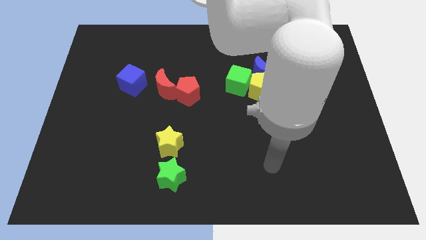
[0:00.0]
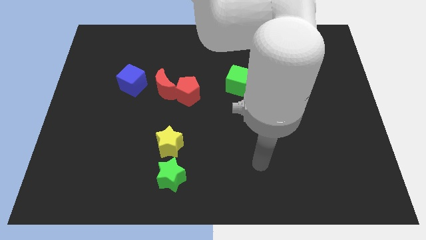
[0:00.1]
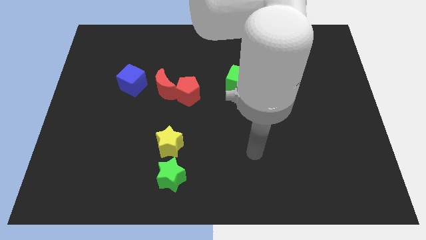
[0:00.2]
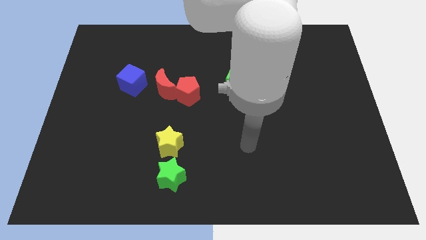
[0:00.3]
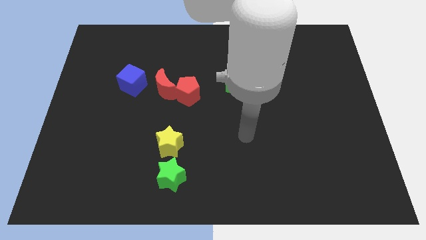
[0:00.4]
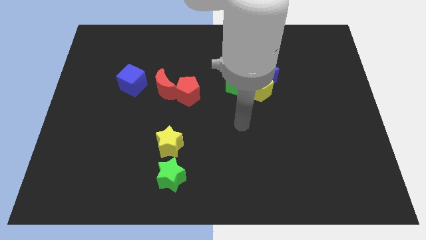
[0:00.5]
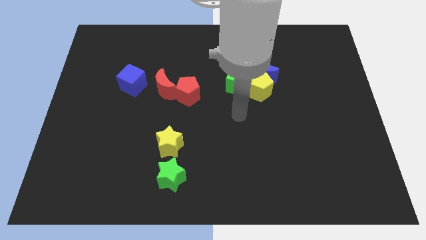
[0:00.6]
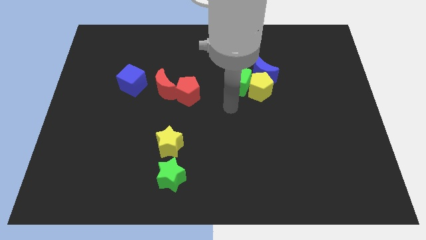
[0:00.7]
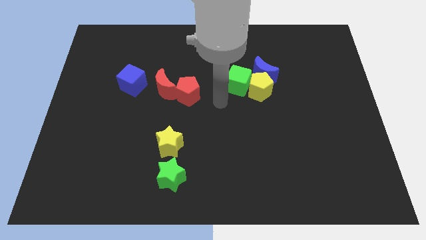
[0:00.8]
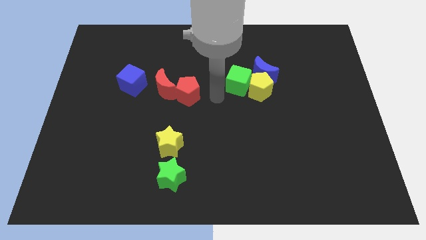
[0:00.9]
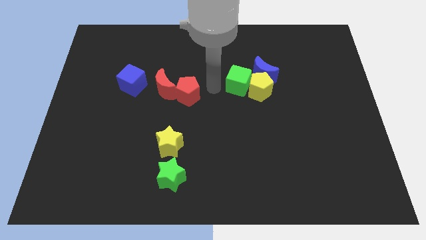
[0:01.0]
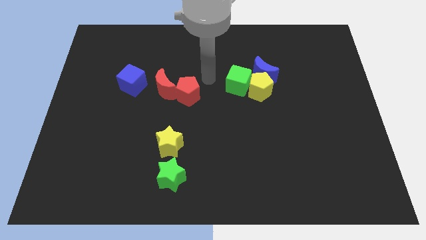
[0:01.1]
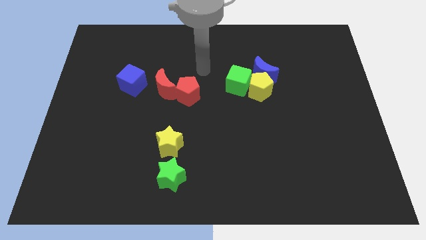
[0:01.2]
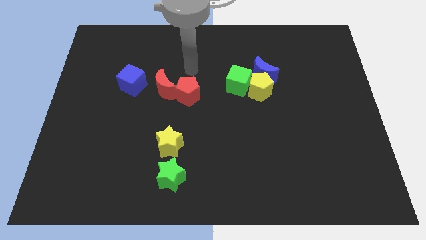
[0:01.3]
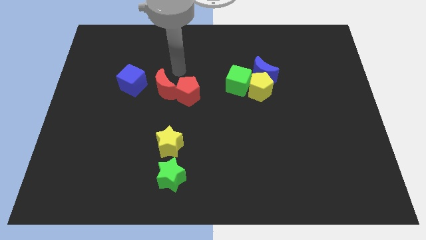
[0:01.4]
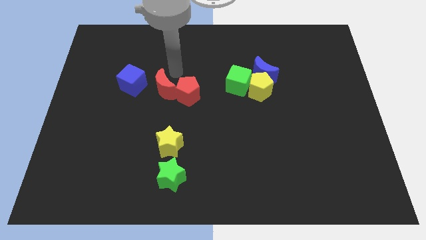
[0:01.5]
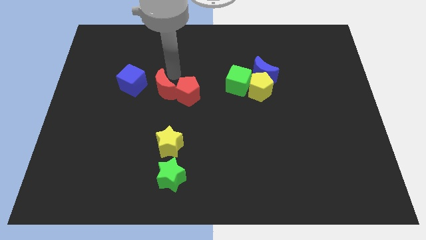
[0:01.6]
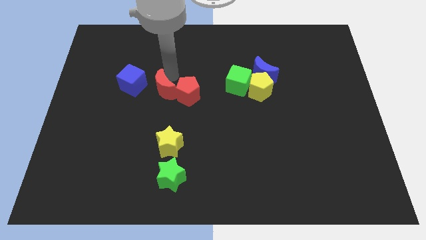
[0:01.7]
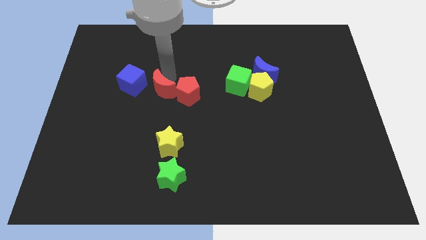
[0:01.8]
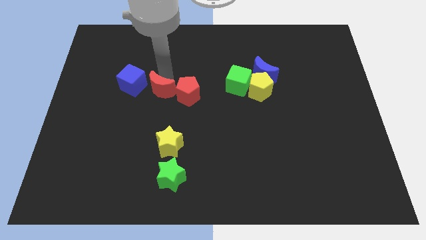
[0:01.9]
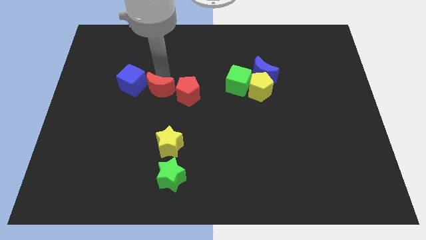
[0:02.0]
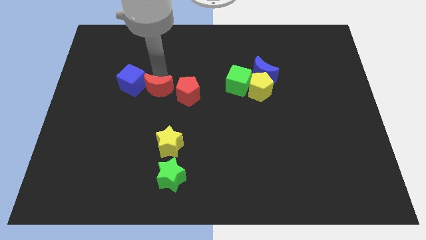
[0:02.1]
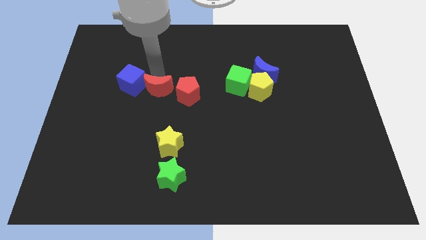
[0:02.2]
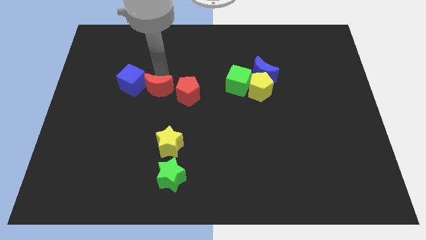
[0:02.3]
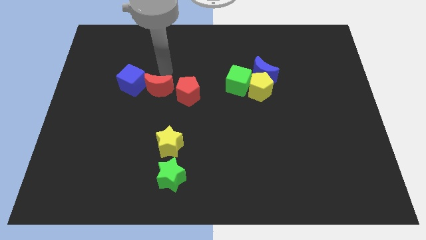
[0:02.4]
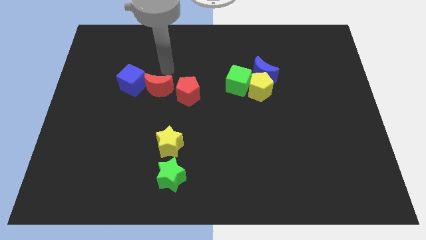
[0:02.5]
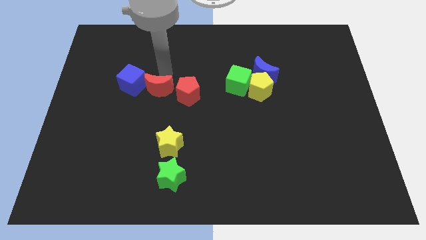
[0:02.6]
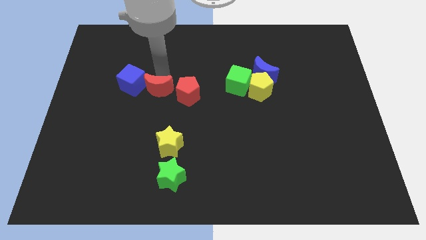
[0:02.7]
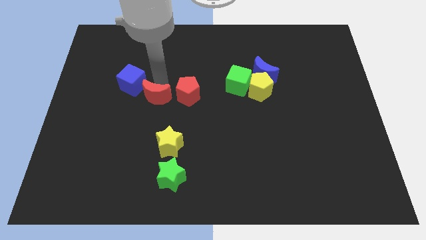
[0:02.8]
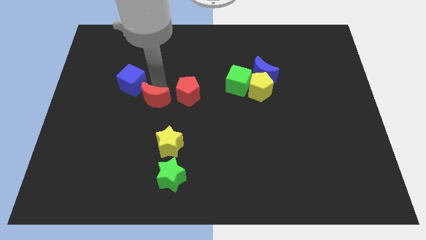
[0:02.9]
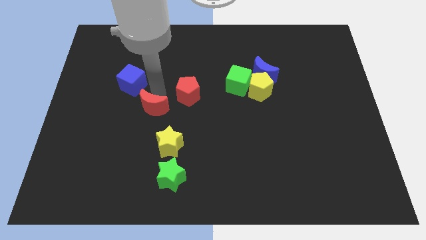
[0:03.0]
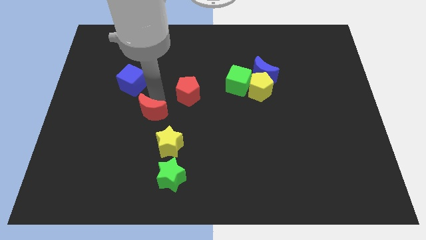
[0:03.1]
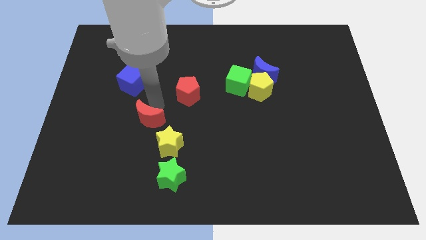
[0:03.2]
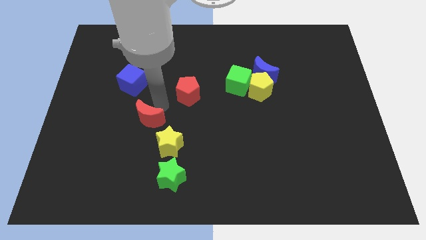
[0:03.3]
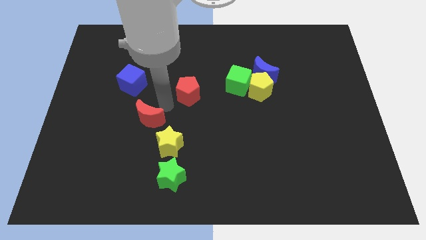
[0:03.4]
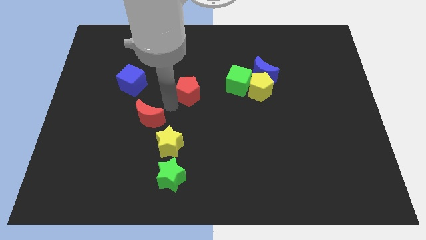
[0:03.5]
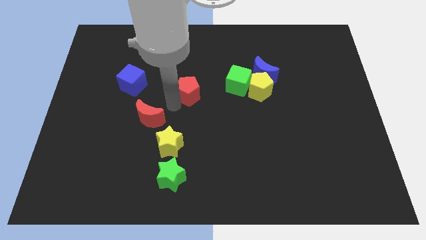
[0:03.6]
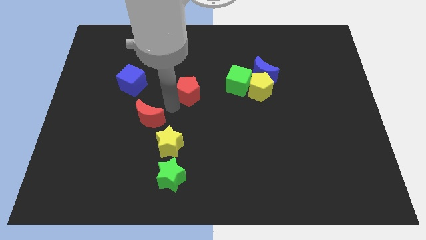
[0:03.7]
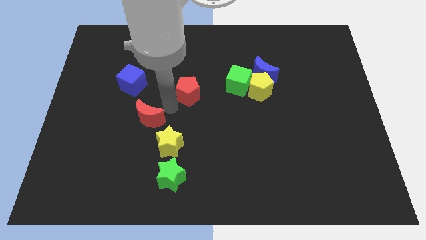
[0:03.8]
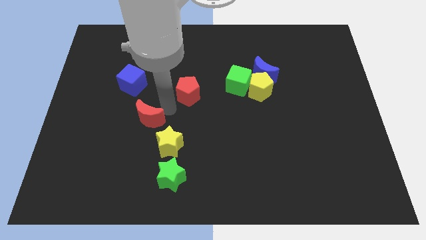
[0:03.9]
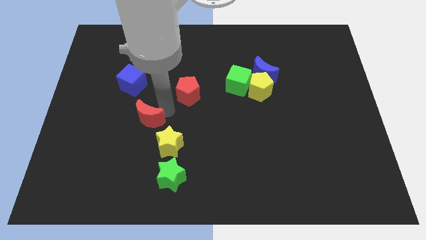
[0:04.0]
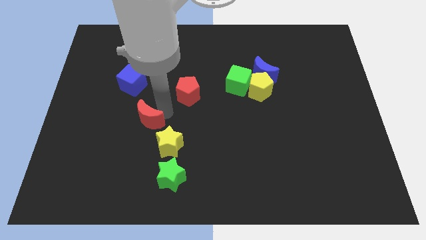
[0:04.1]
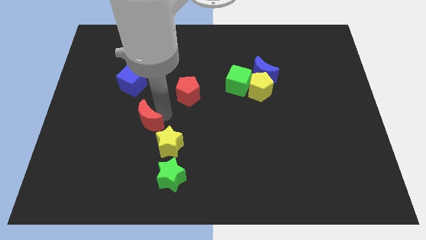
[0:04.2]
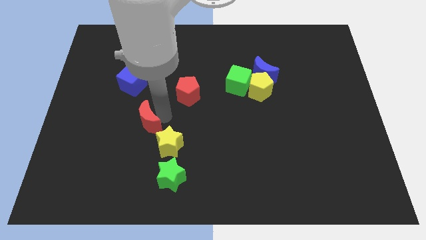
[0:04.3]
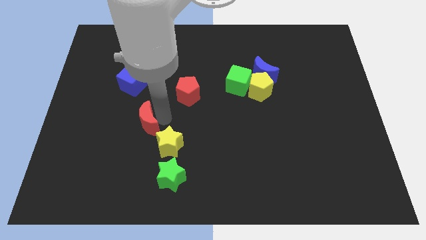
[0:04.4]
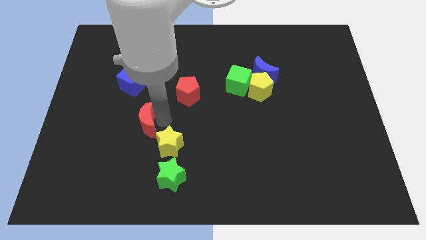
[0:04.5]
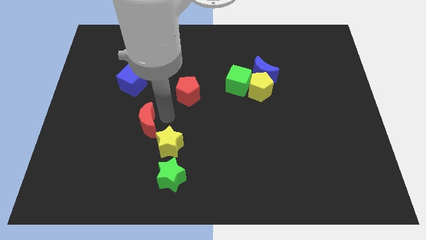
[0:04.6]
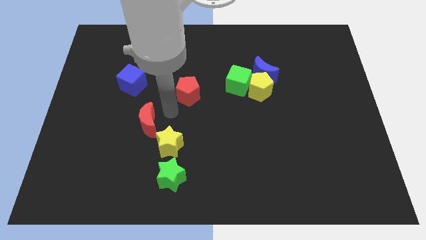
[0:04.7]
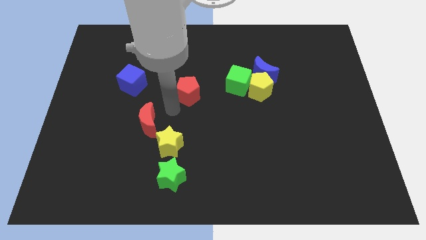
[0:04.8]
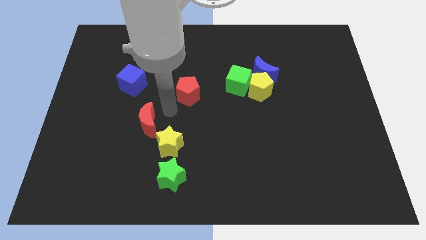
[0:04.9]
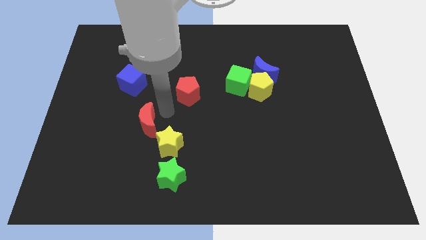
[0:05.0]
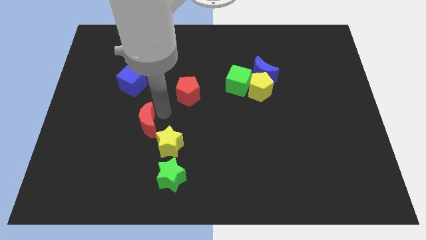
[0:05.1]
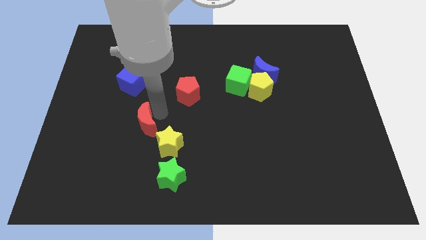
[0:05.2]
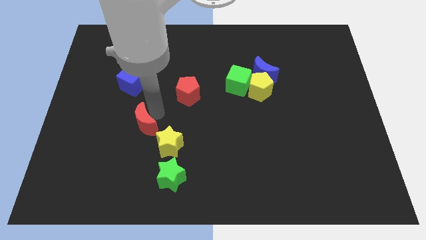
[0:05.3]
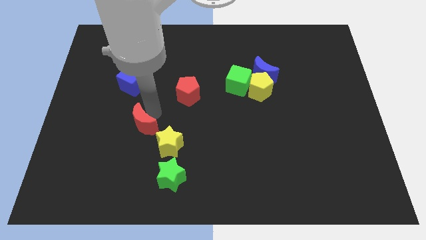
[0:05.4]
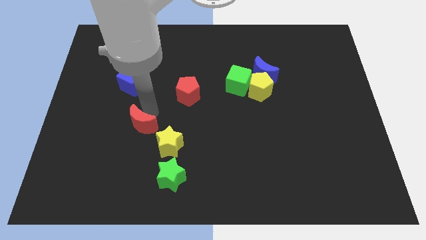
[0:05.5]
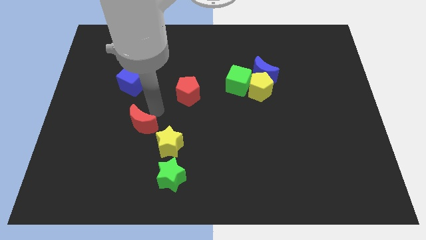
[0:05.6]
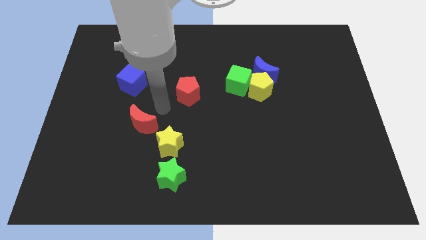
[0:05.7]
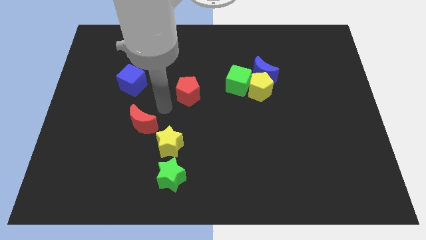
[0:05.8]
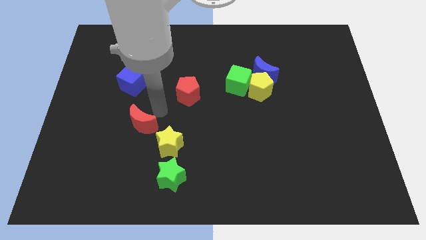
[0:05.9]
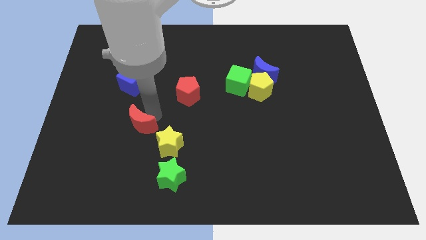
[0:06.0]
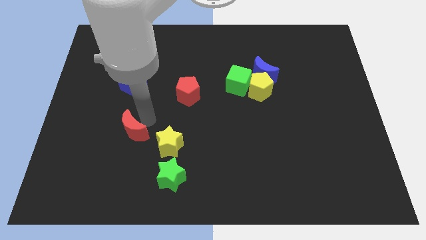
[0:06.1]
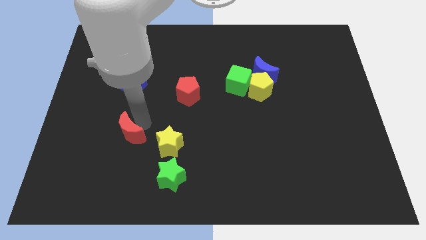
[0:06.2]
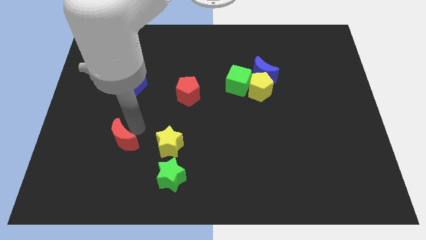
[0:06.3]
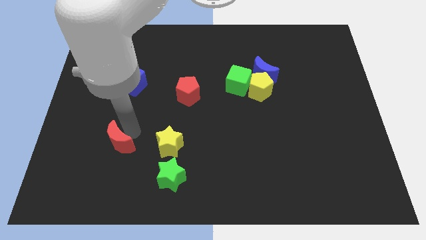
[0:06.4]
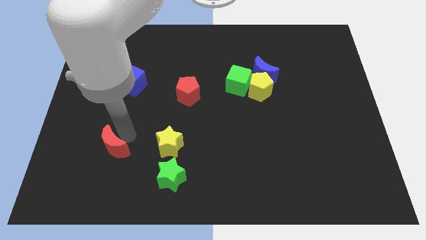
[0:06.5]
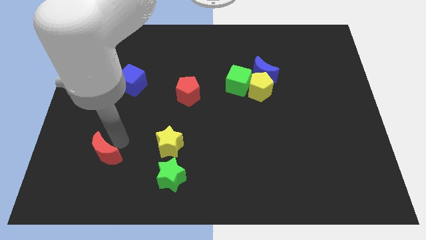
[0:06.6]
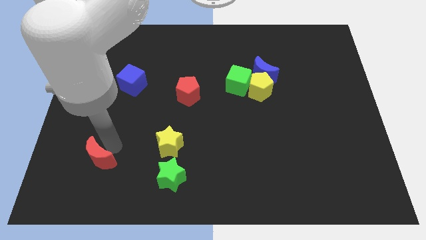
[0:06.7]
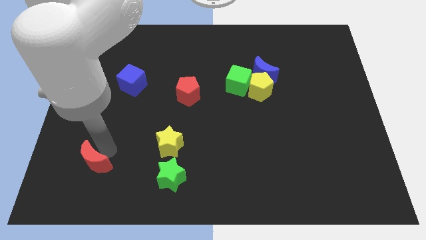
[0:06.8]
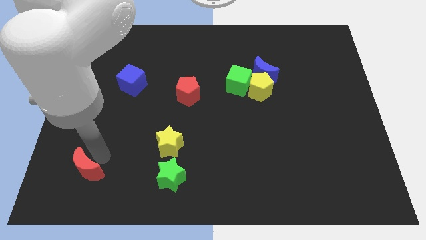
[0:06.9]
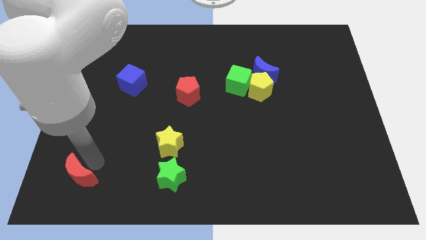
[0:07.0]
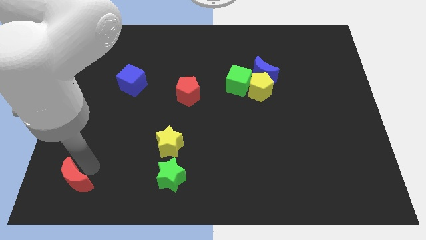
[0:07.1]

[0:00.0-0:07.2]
put the red moon to the bottom left corner
